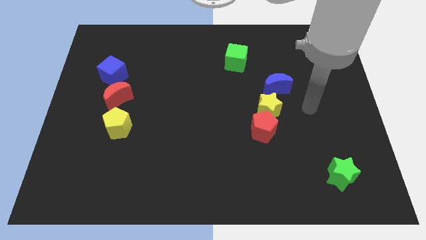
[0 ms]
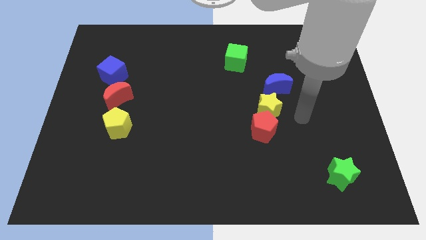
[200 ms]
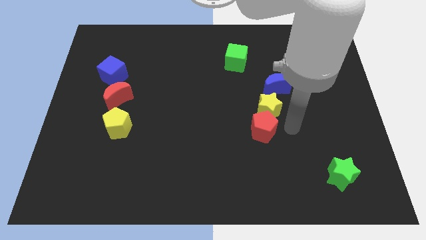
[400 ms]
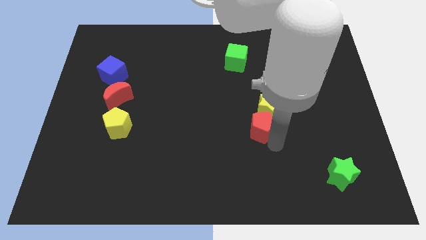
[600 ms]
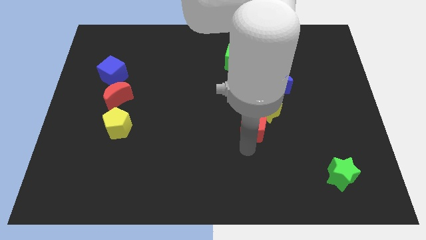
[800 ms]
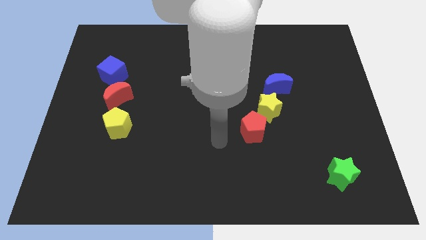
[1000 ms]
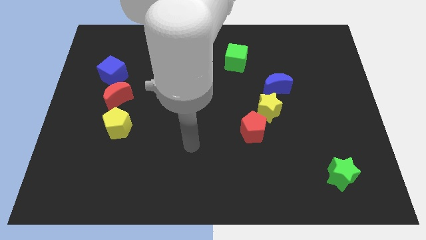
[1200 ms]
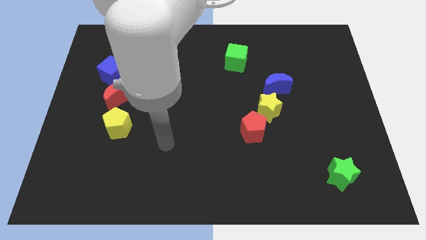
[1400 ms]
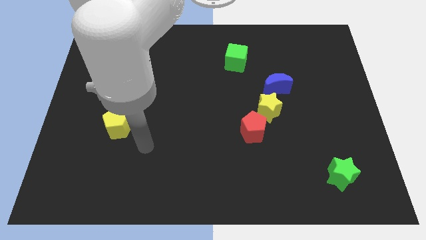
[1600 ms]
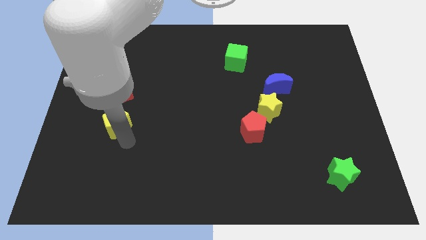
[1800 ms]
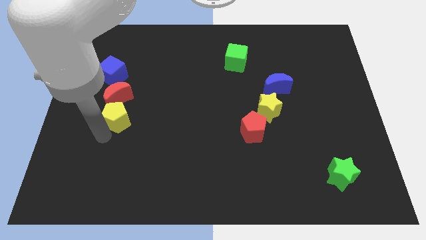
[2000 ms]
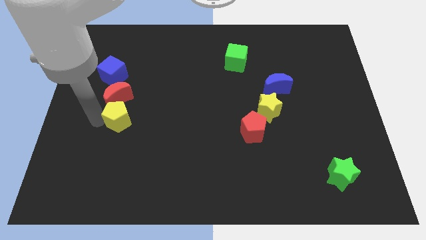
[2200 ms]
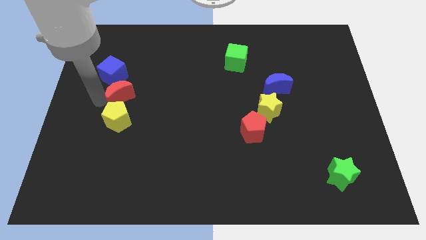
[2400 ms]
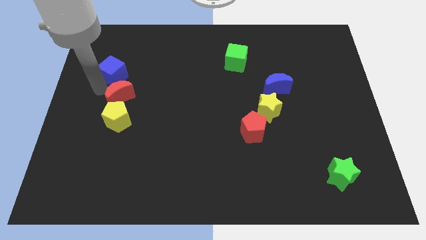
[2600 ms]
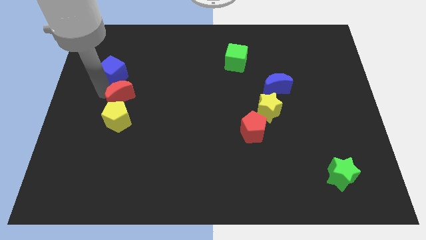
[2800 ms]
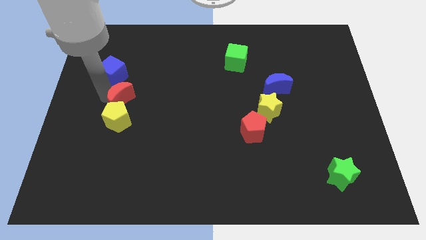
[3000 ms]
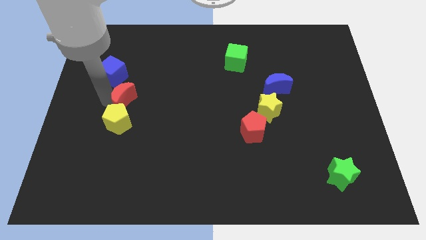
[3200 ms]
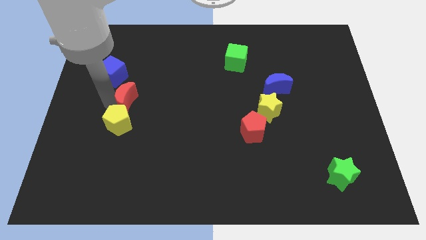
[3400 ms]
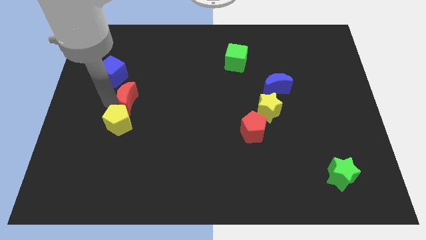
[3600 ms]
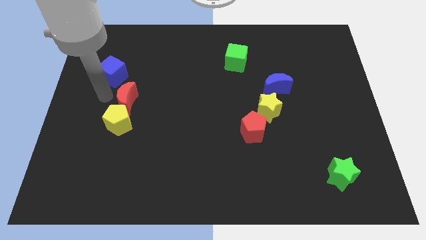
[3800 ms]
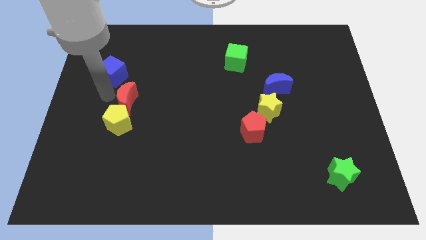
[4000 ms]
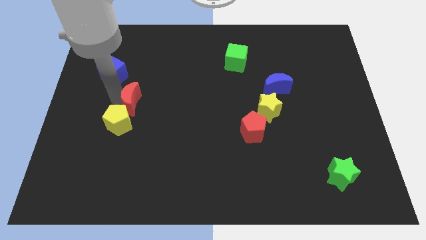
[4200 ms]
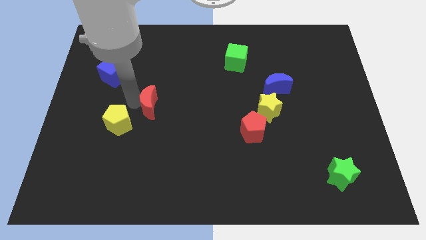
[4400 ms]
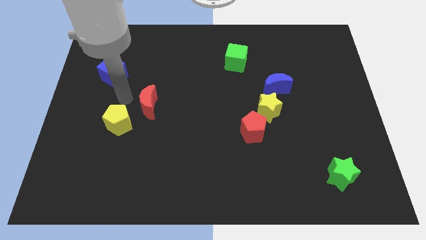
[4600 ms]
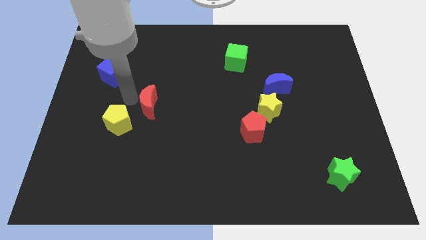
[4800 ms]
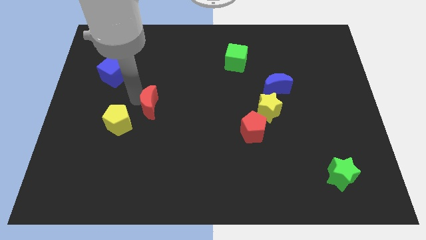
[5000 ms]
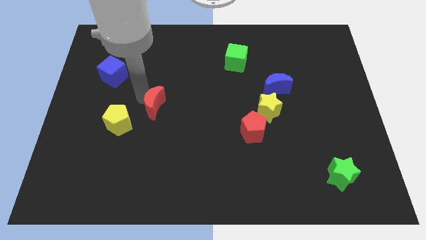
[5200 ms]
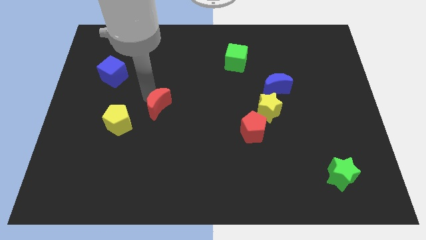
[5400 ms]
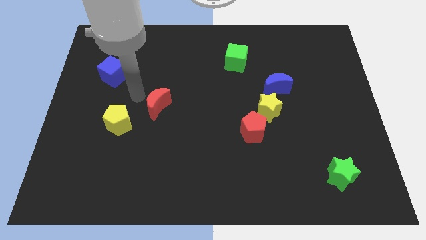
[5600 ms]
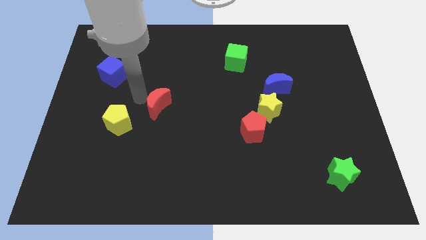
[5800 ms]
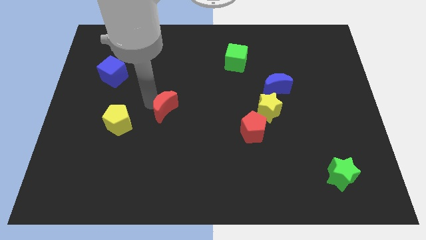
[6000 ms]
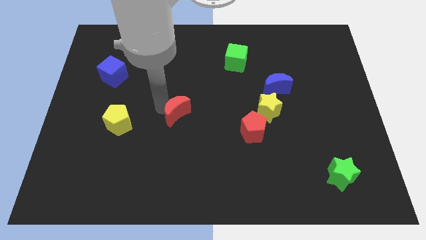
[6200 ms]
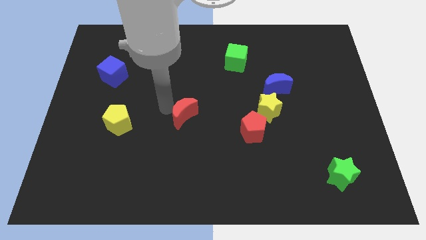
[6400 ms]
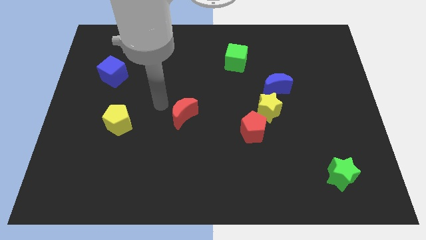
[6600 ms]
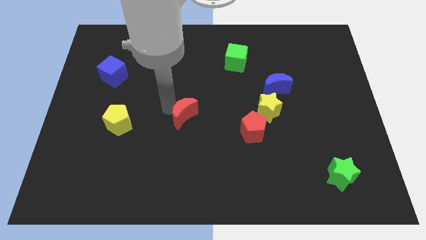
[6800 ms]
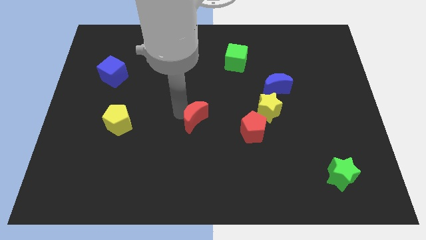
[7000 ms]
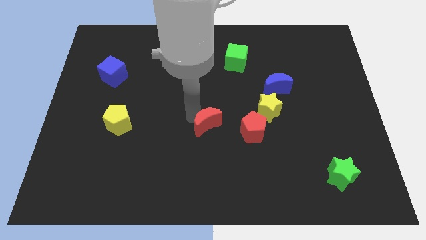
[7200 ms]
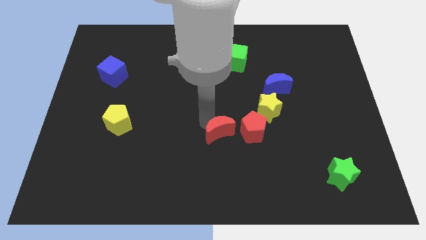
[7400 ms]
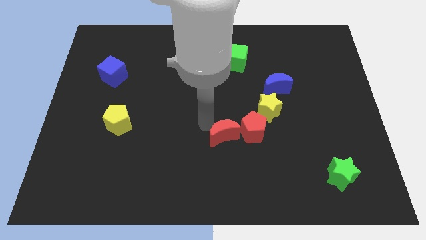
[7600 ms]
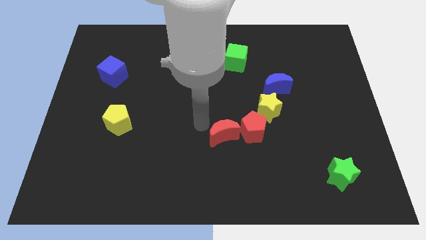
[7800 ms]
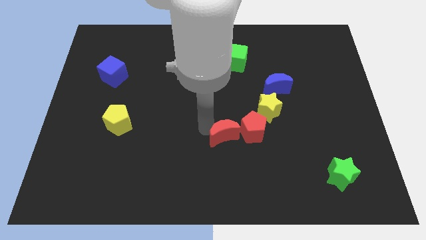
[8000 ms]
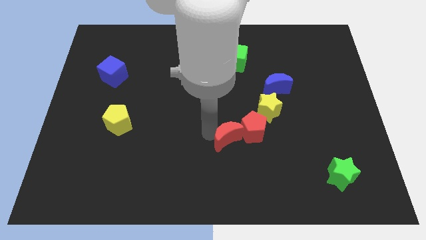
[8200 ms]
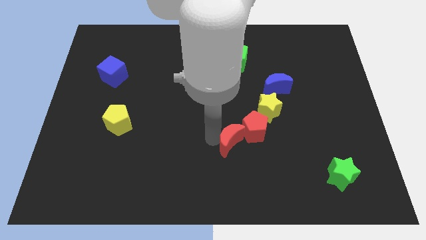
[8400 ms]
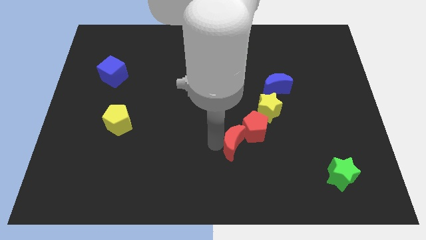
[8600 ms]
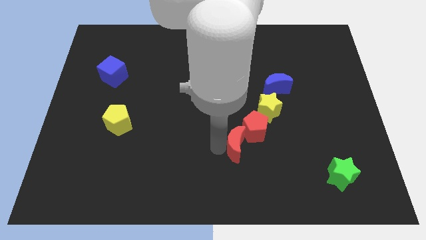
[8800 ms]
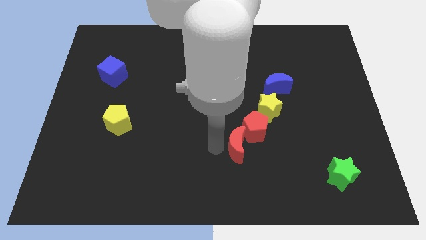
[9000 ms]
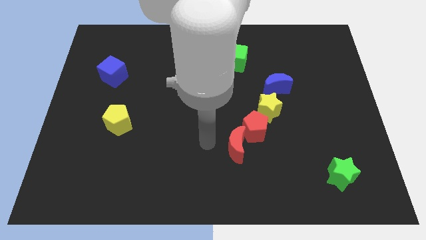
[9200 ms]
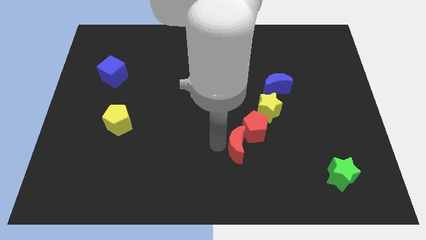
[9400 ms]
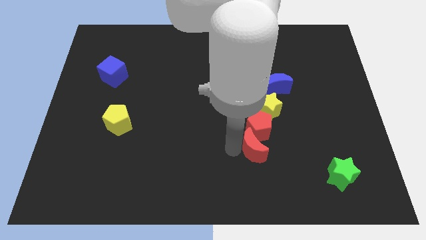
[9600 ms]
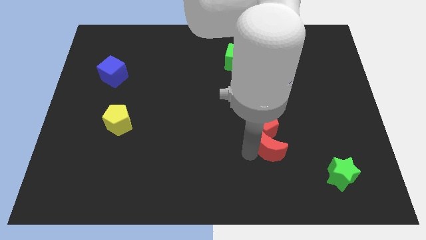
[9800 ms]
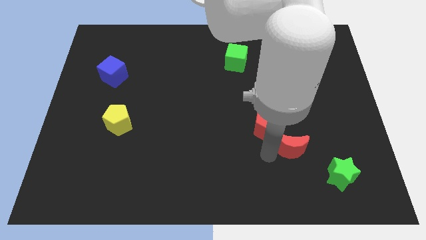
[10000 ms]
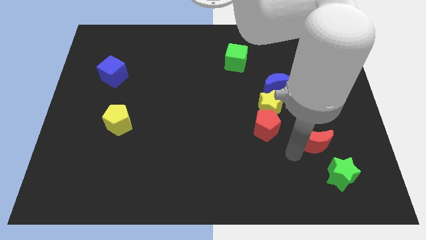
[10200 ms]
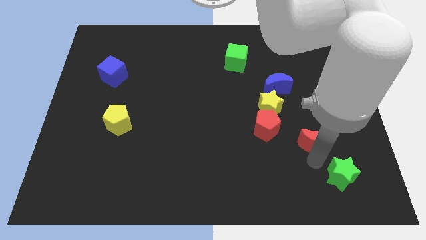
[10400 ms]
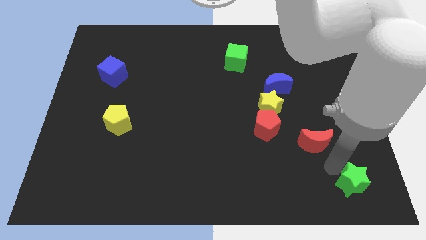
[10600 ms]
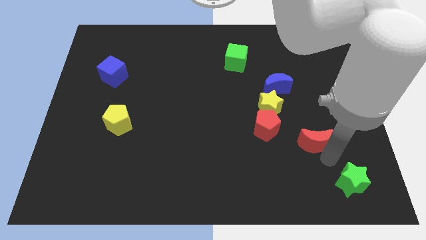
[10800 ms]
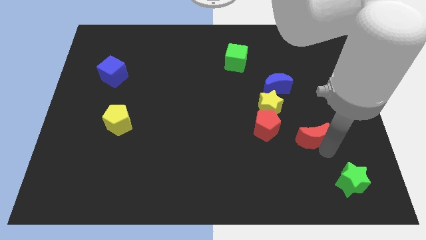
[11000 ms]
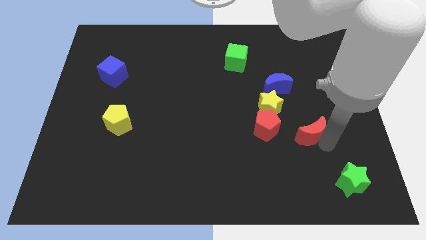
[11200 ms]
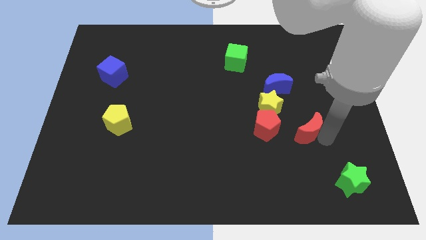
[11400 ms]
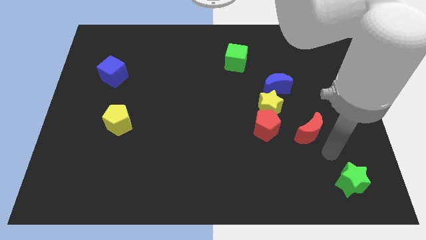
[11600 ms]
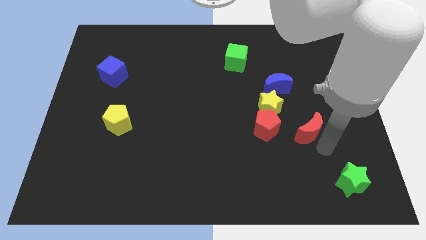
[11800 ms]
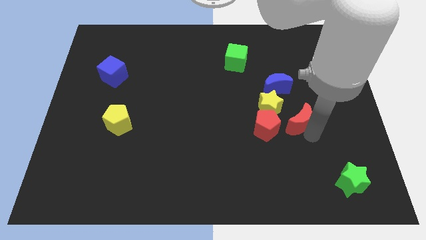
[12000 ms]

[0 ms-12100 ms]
put the red moon to the top right of the red pentagon

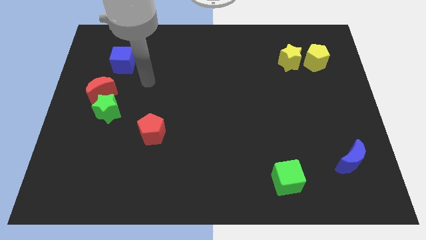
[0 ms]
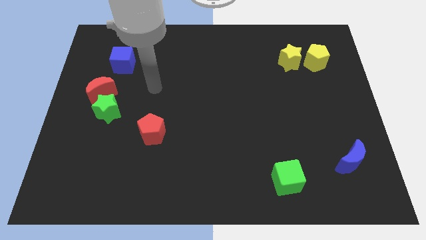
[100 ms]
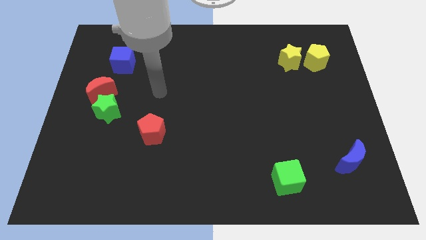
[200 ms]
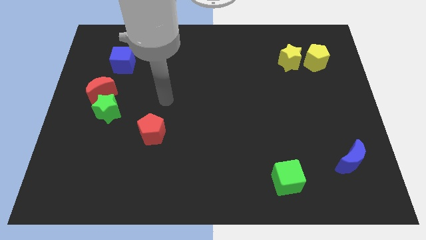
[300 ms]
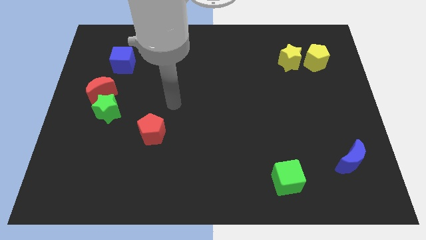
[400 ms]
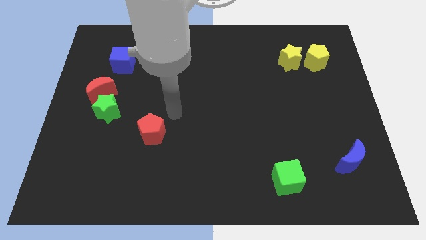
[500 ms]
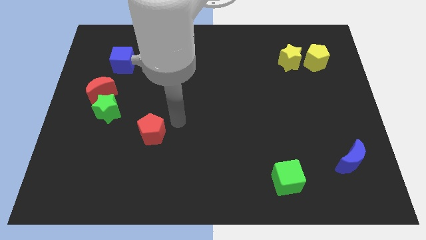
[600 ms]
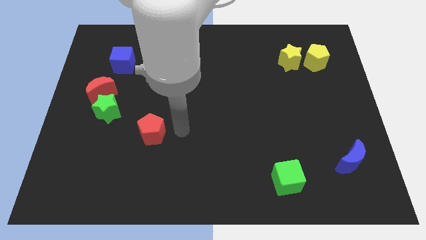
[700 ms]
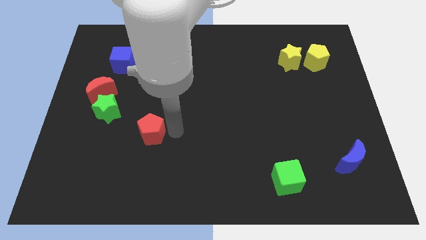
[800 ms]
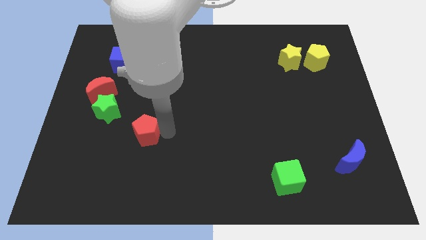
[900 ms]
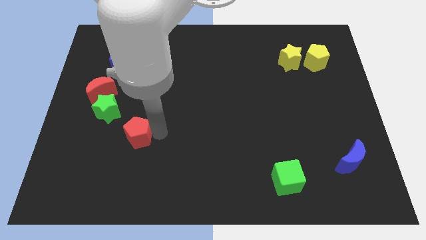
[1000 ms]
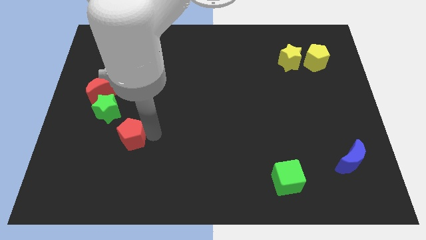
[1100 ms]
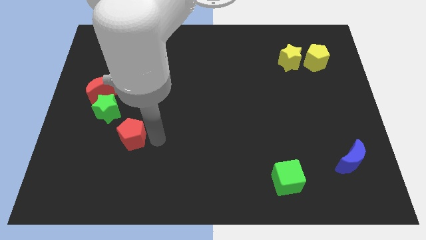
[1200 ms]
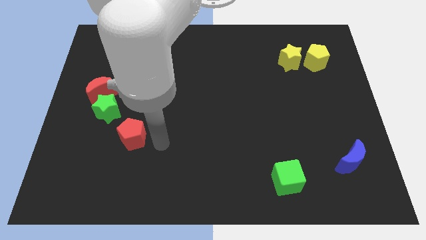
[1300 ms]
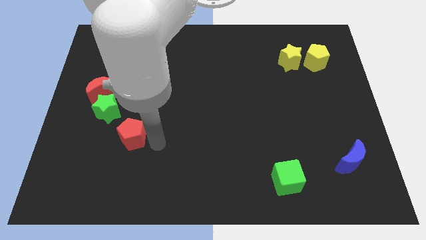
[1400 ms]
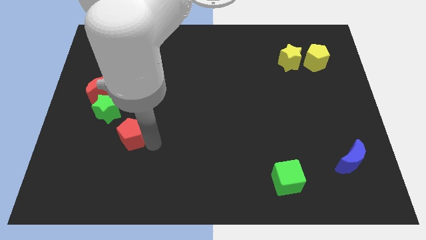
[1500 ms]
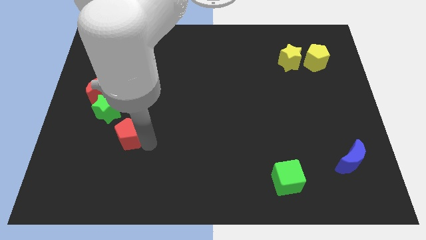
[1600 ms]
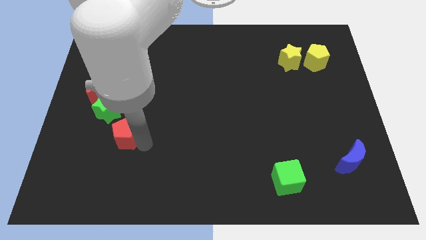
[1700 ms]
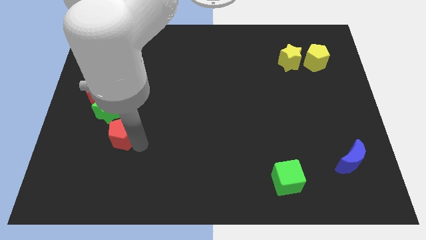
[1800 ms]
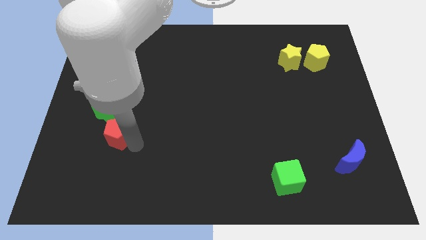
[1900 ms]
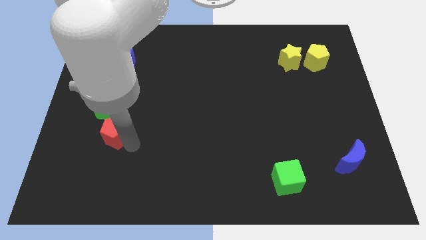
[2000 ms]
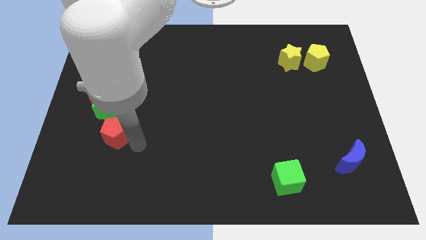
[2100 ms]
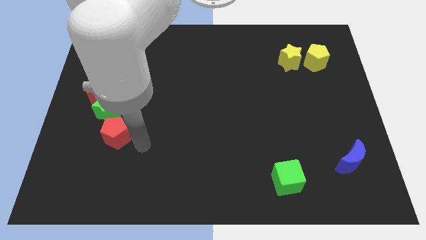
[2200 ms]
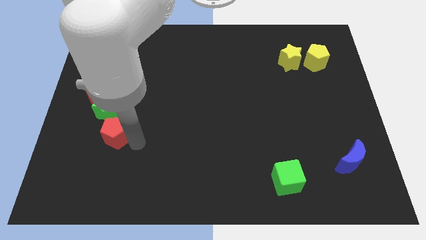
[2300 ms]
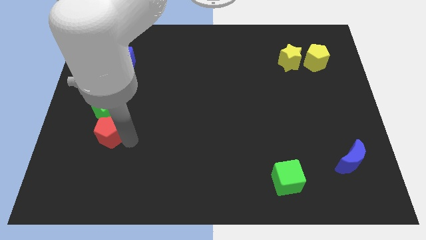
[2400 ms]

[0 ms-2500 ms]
move the red pentagon to the bottom side of the red moon

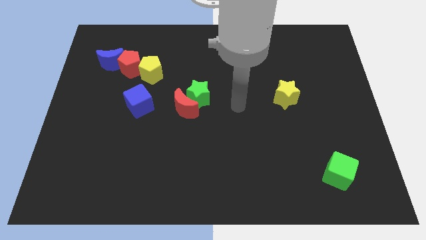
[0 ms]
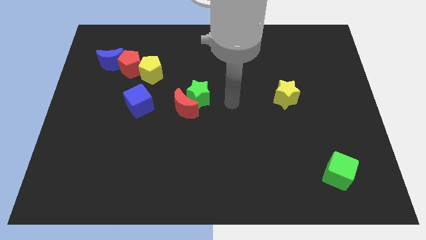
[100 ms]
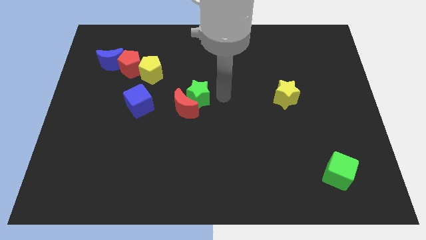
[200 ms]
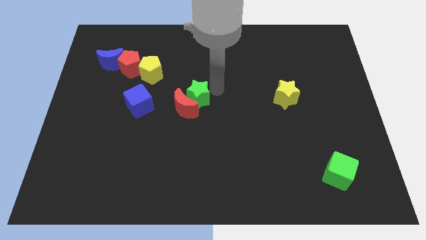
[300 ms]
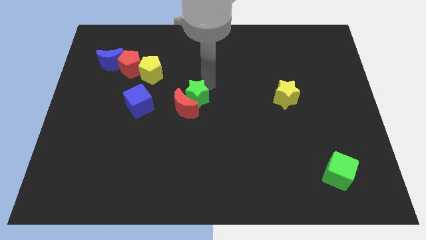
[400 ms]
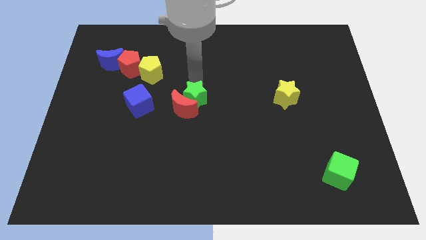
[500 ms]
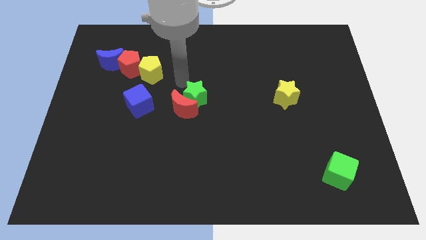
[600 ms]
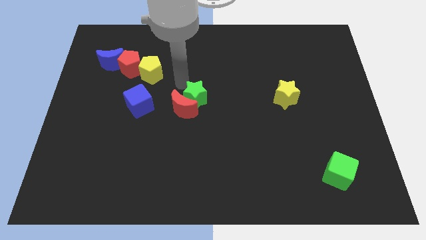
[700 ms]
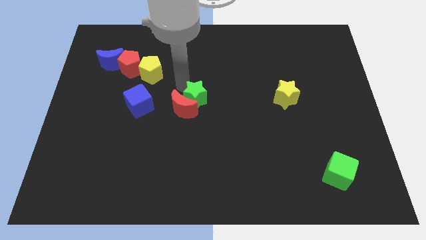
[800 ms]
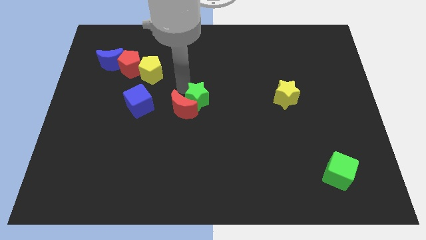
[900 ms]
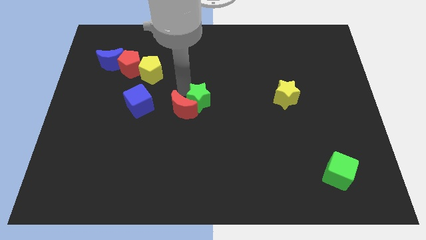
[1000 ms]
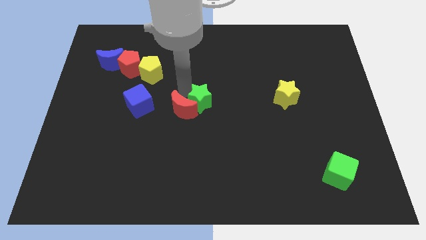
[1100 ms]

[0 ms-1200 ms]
slide the green star to the bottom right side of the red moon
